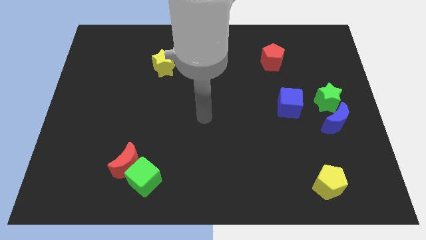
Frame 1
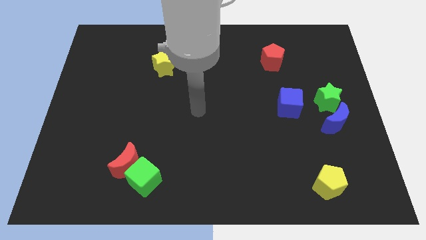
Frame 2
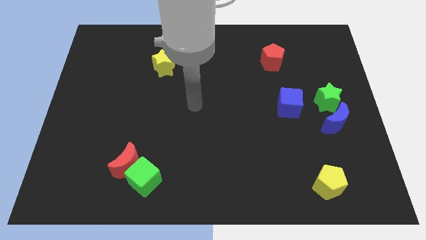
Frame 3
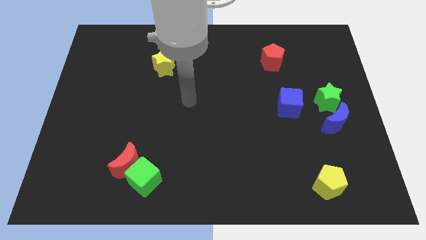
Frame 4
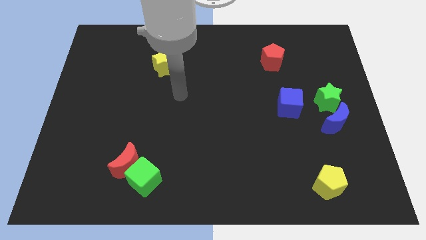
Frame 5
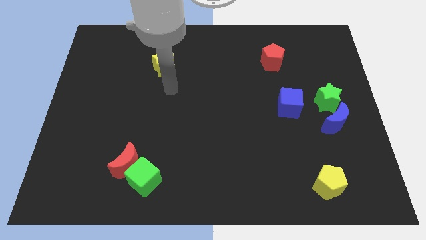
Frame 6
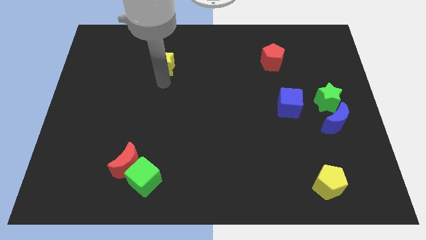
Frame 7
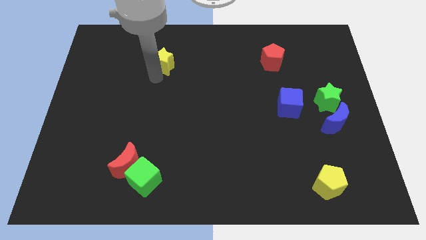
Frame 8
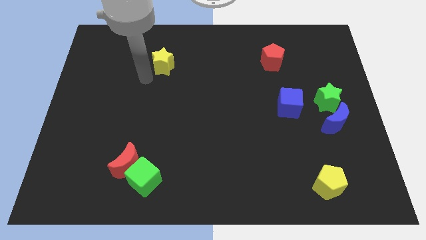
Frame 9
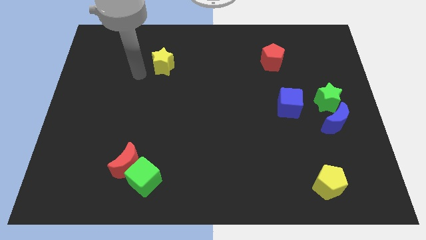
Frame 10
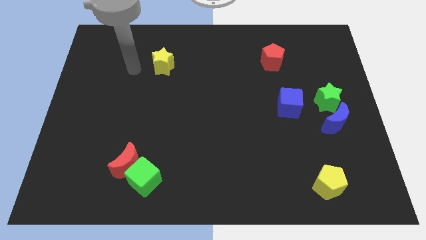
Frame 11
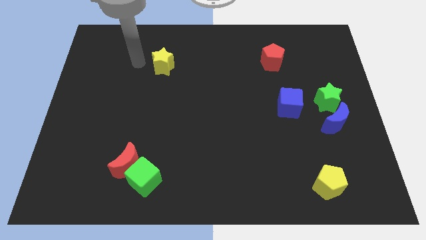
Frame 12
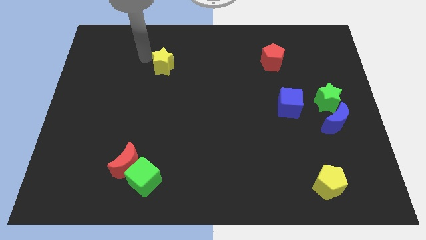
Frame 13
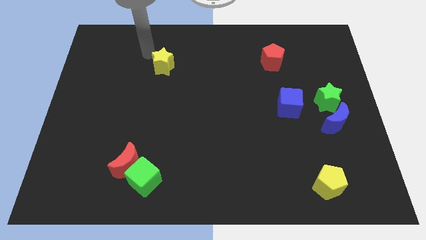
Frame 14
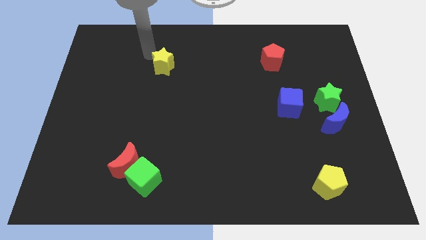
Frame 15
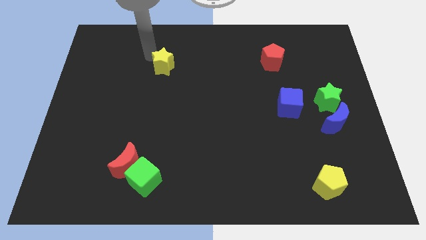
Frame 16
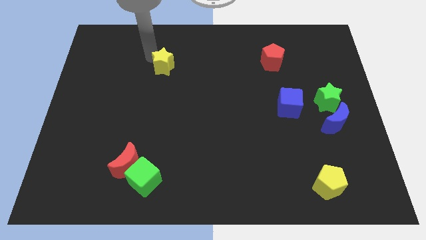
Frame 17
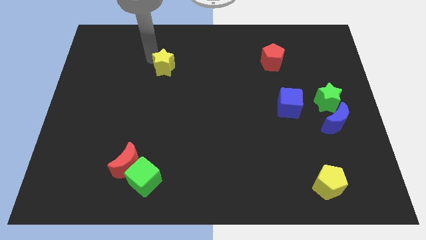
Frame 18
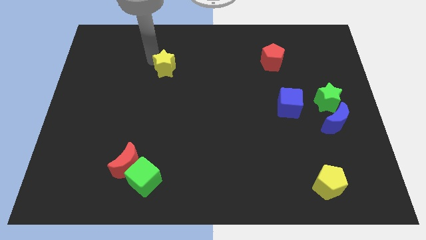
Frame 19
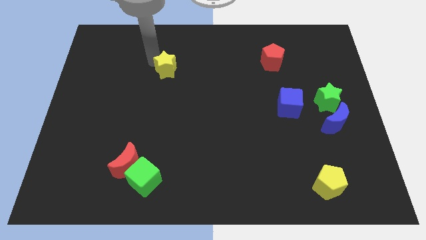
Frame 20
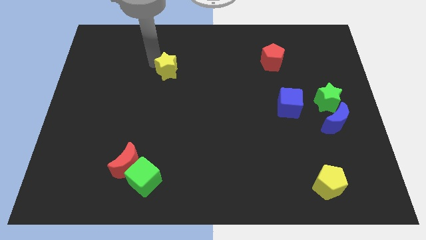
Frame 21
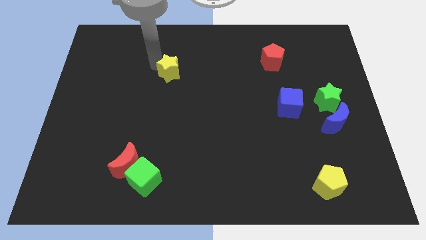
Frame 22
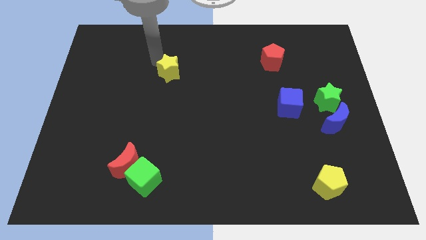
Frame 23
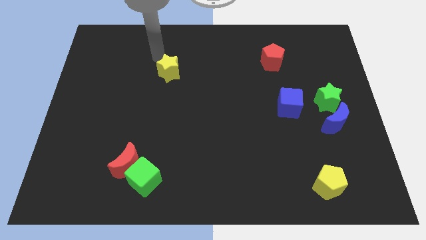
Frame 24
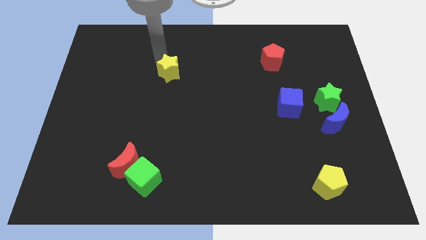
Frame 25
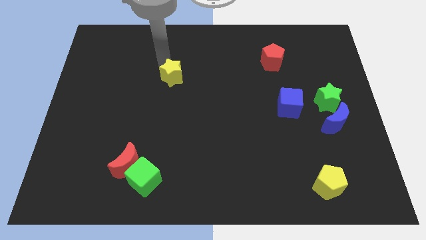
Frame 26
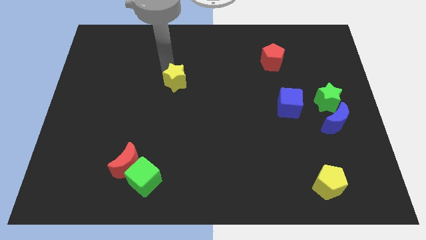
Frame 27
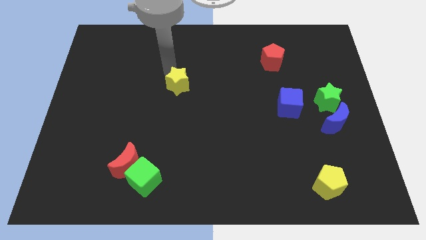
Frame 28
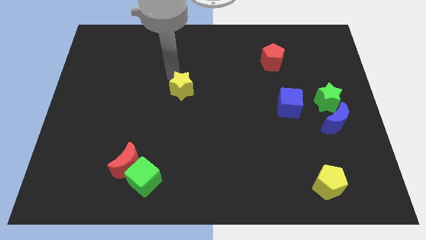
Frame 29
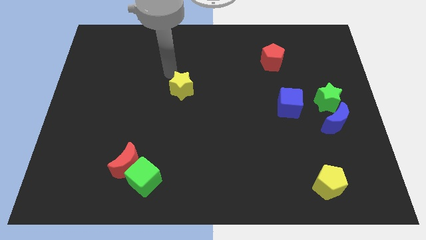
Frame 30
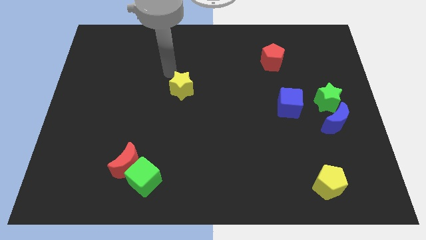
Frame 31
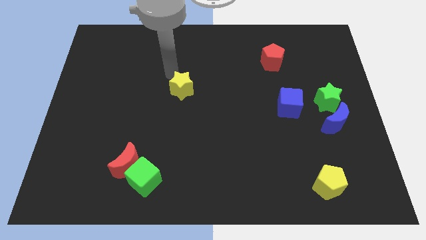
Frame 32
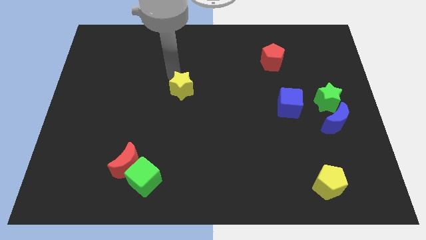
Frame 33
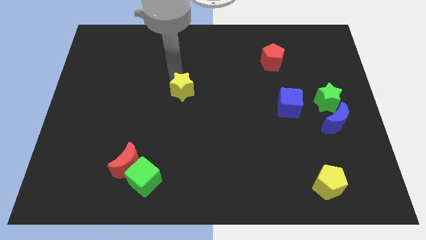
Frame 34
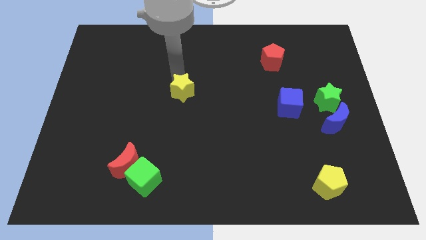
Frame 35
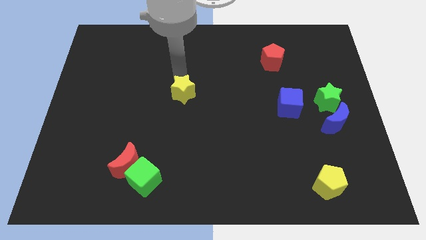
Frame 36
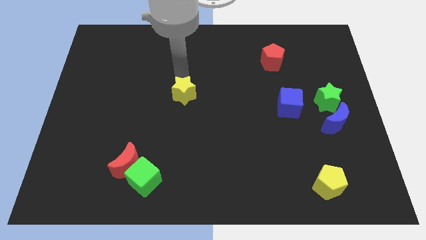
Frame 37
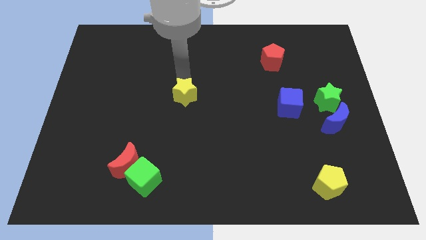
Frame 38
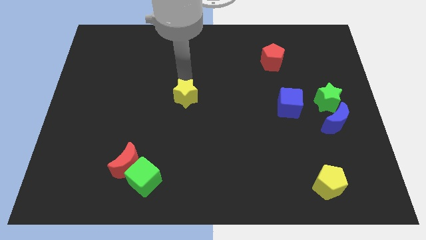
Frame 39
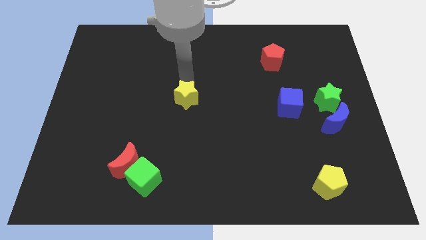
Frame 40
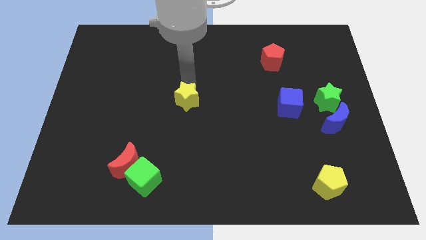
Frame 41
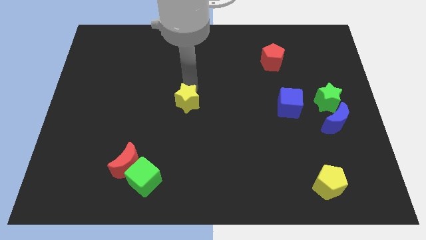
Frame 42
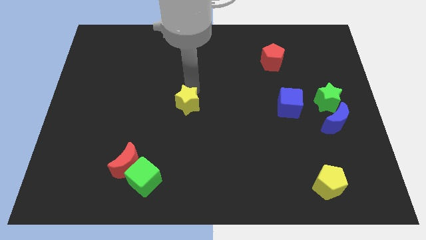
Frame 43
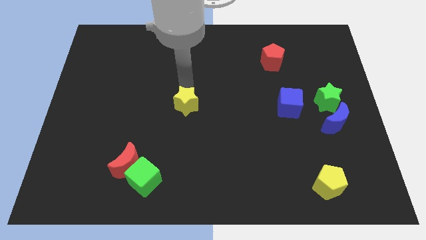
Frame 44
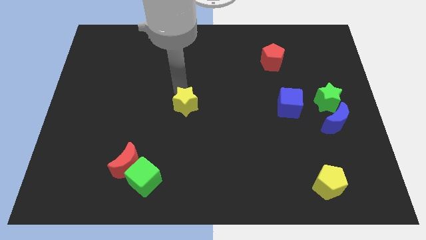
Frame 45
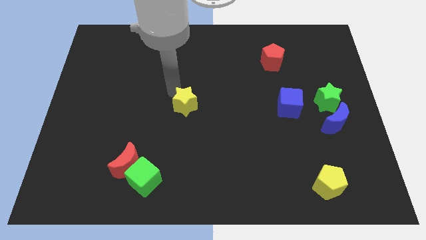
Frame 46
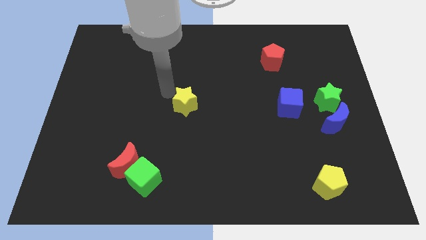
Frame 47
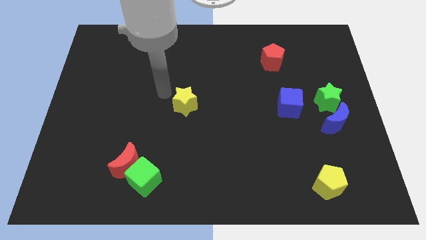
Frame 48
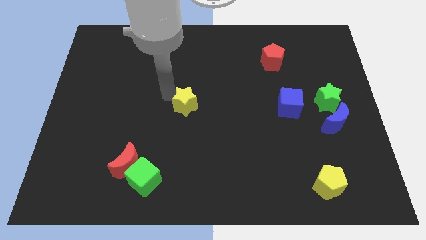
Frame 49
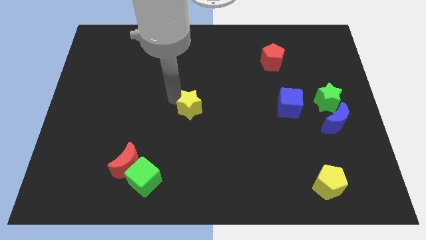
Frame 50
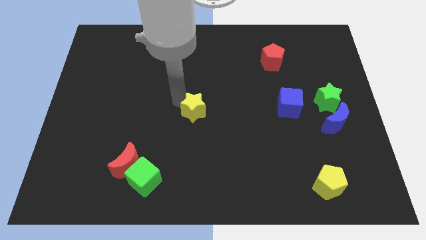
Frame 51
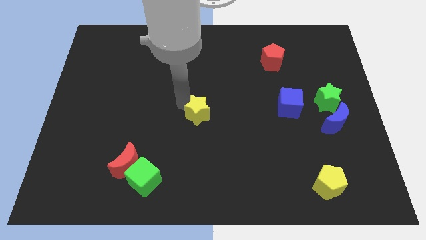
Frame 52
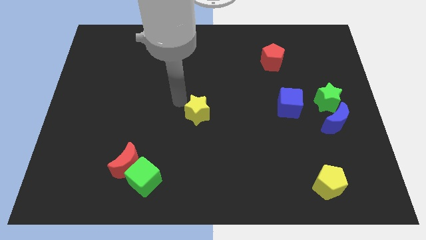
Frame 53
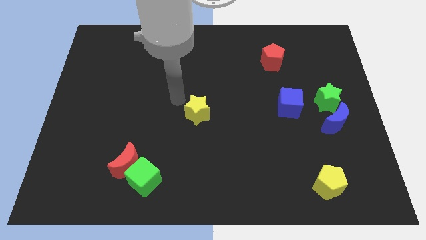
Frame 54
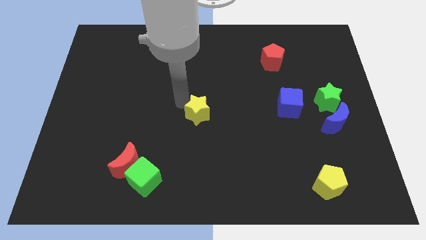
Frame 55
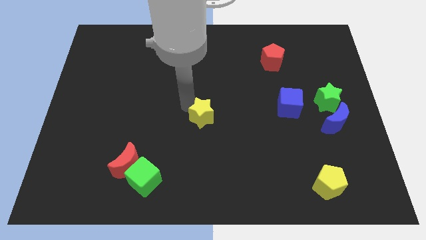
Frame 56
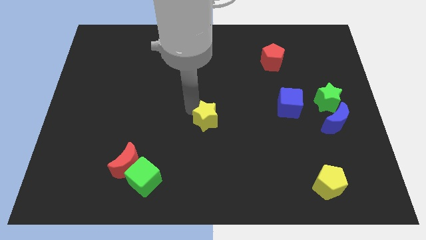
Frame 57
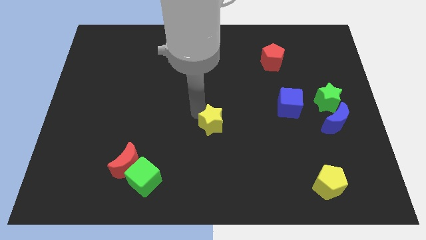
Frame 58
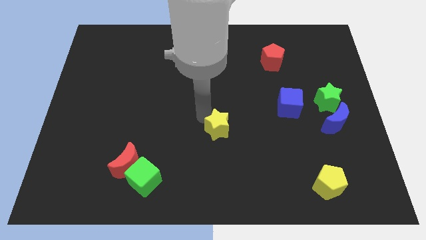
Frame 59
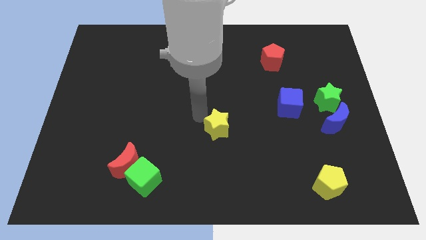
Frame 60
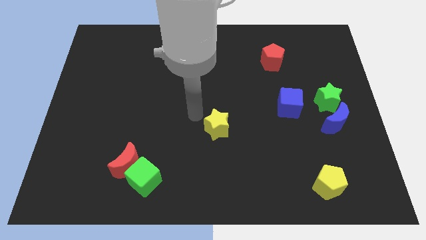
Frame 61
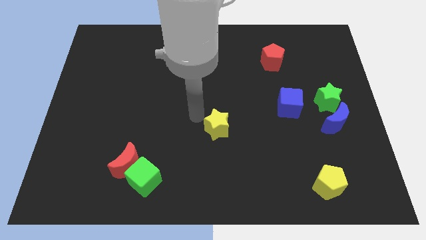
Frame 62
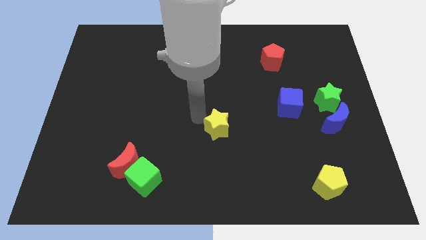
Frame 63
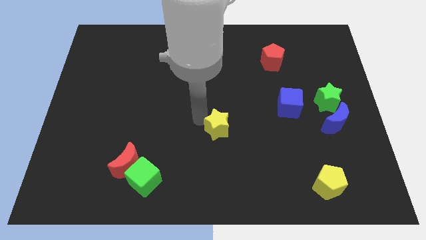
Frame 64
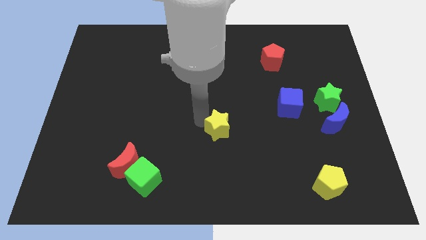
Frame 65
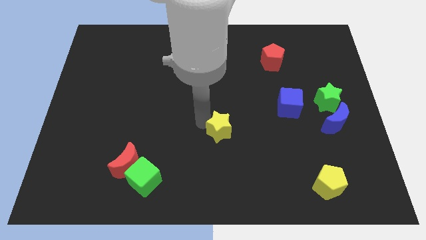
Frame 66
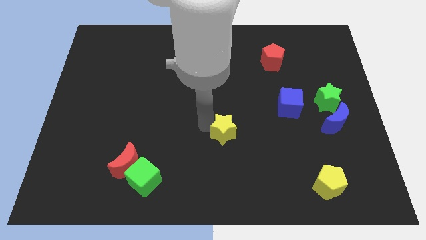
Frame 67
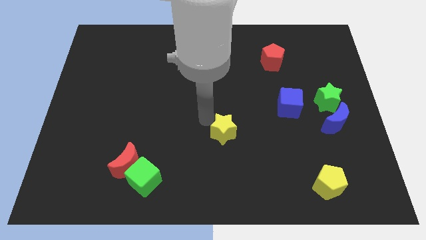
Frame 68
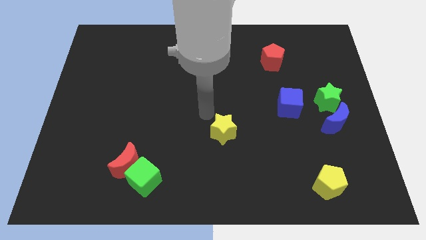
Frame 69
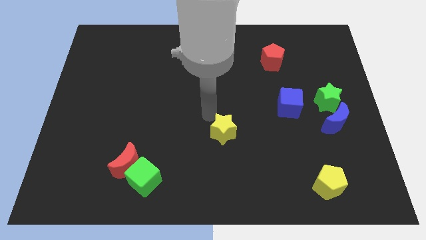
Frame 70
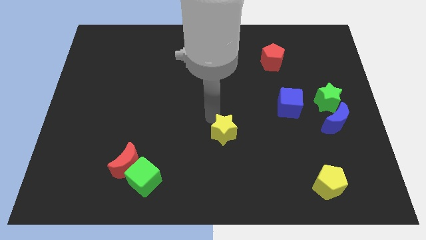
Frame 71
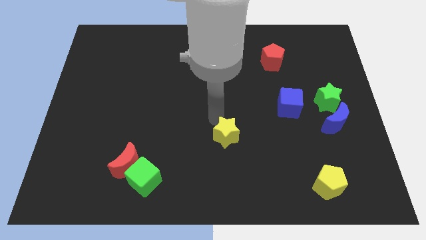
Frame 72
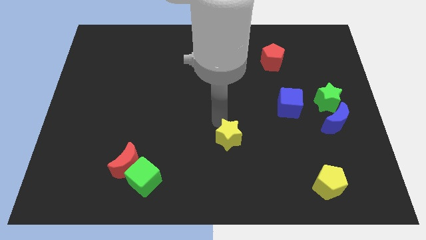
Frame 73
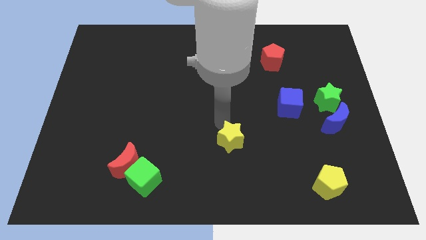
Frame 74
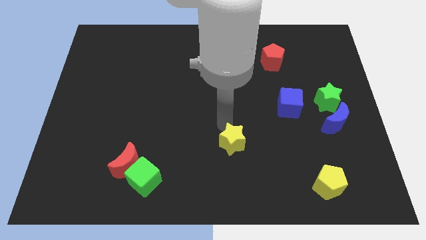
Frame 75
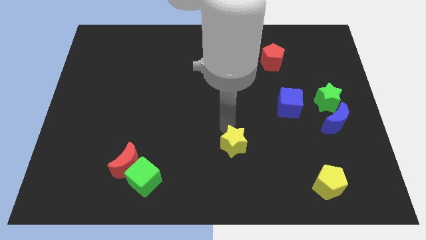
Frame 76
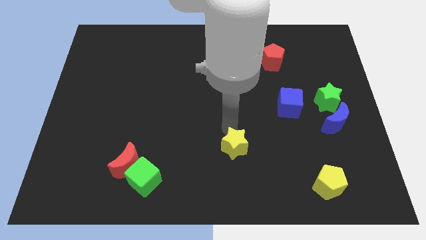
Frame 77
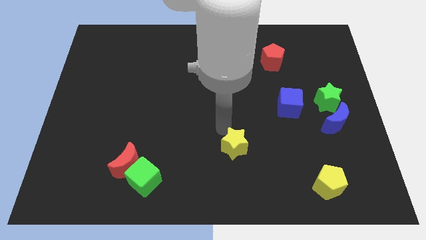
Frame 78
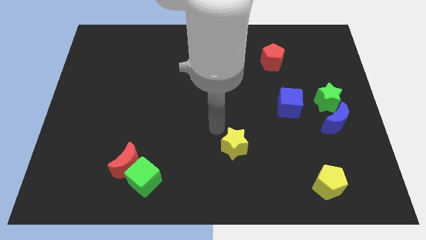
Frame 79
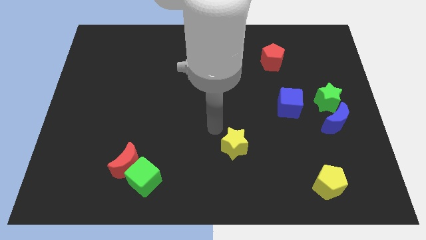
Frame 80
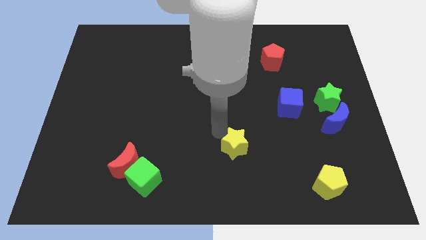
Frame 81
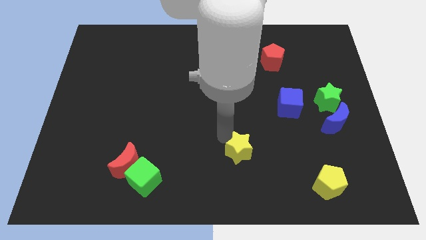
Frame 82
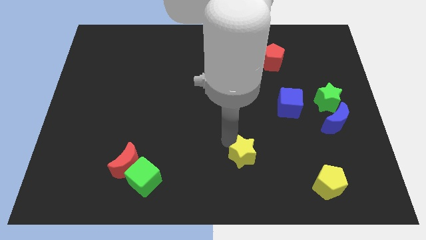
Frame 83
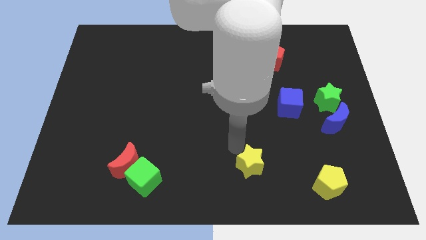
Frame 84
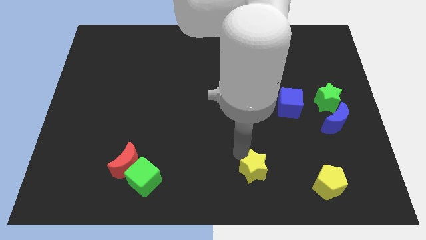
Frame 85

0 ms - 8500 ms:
slide the yellow star left of the yellow pentagon
